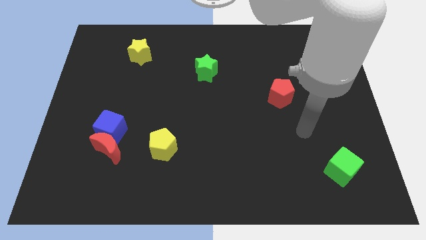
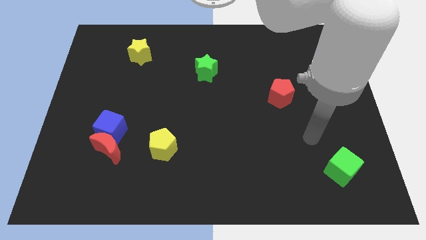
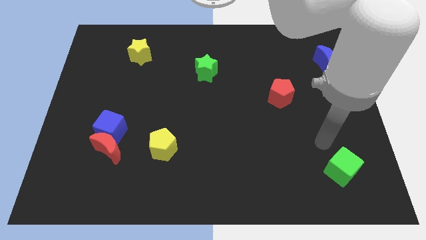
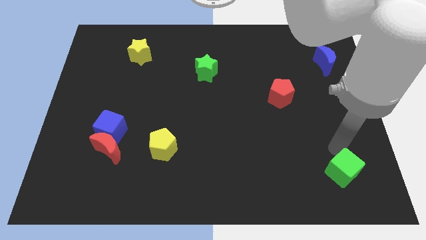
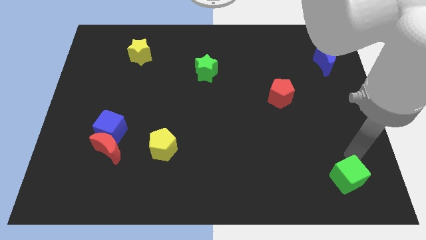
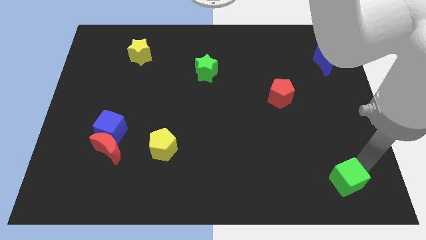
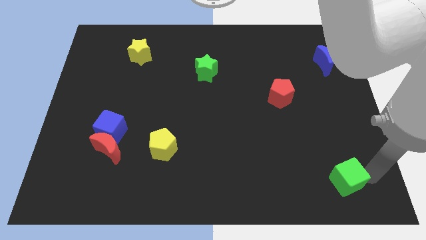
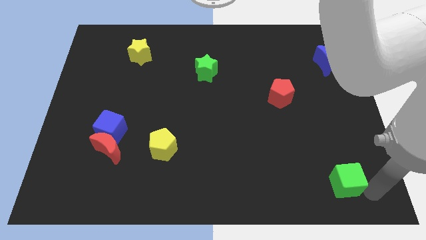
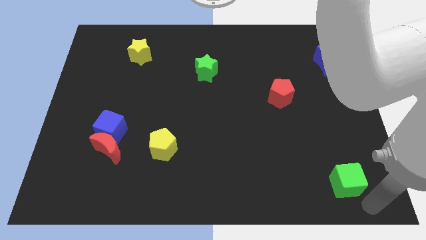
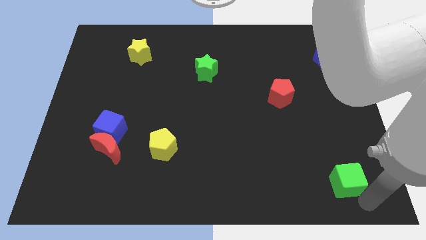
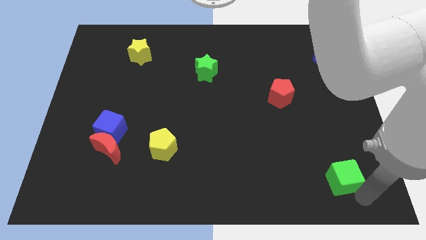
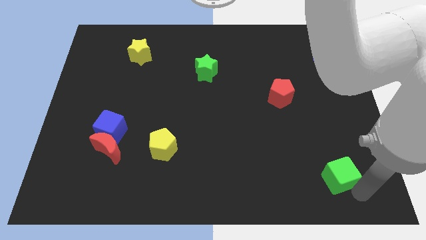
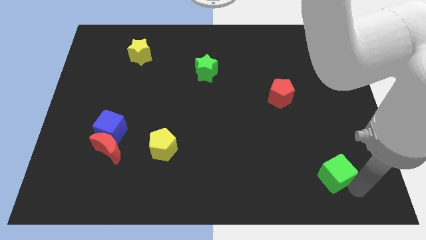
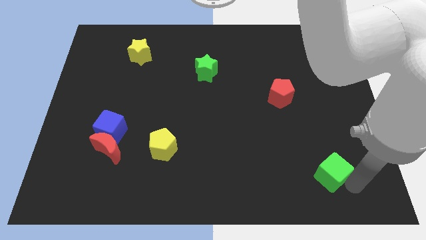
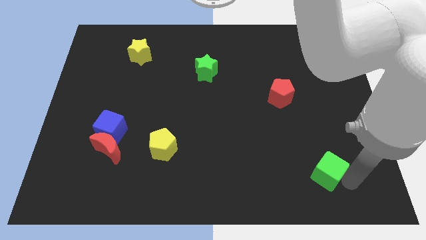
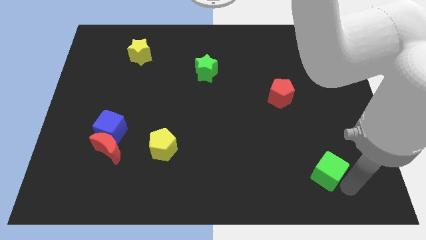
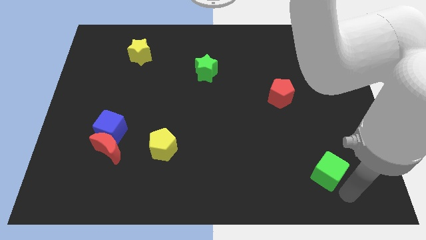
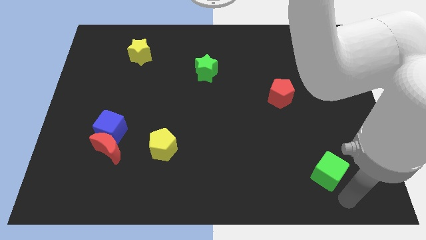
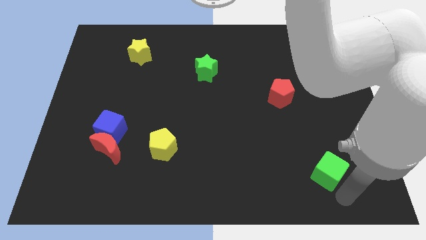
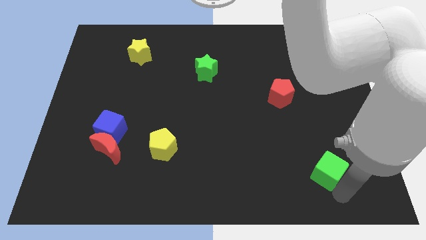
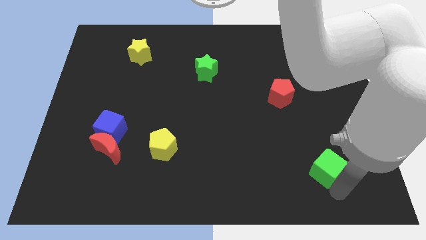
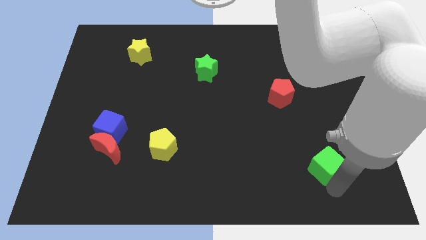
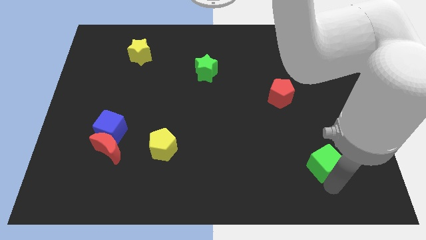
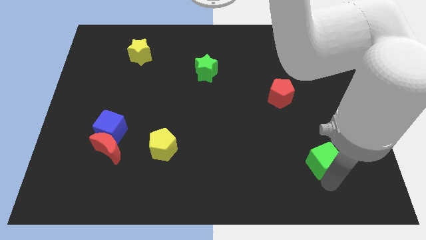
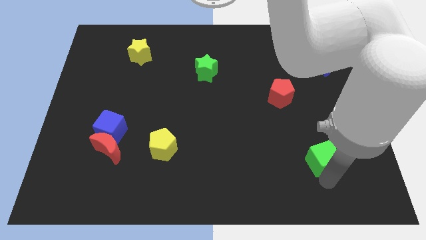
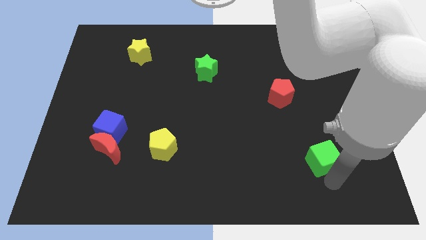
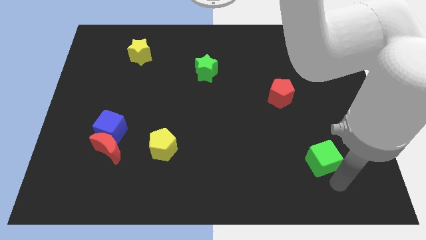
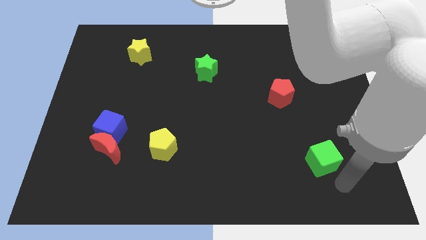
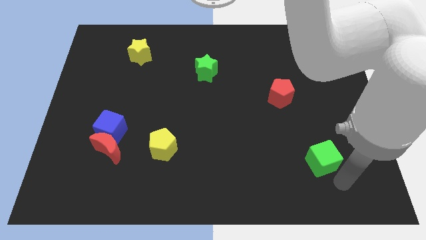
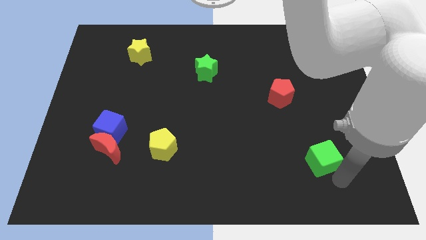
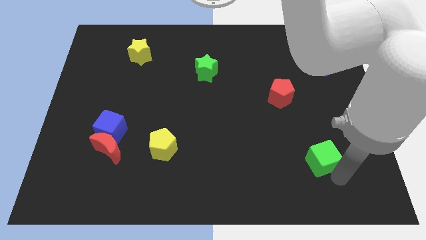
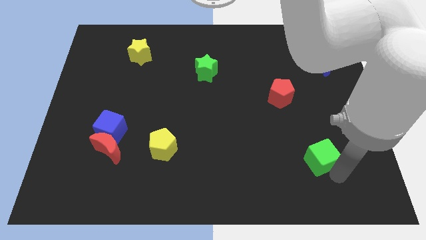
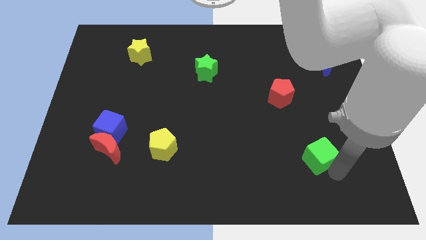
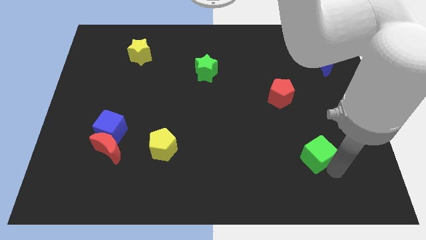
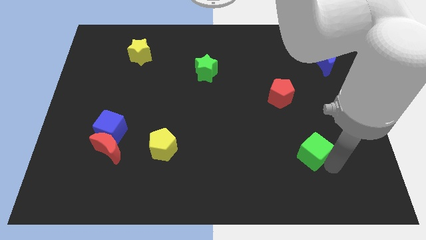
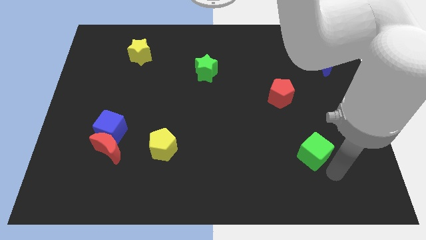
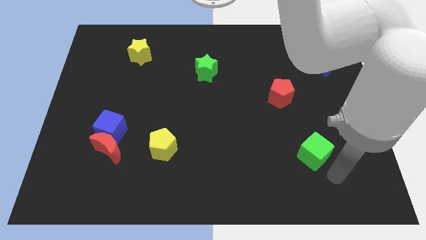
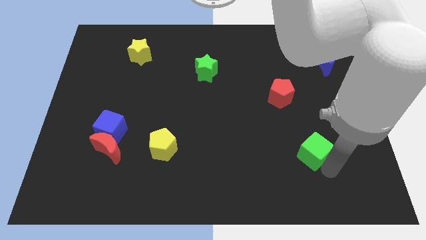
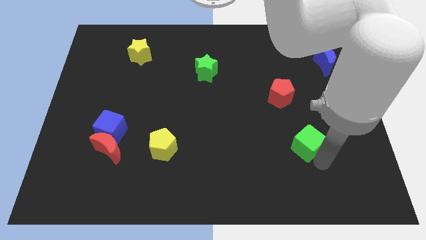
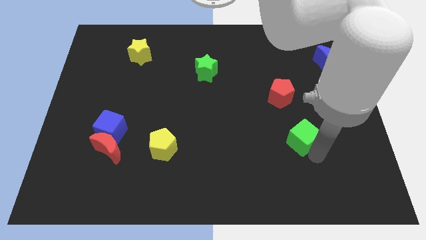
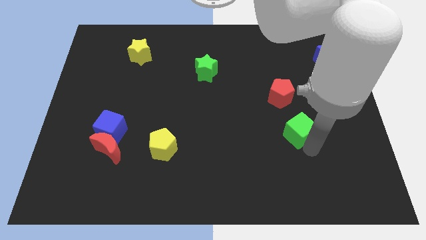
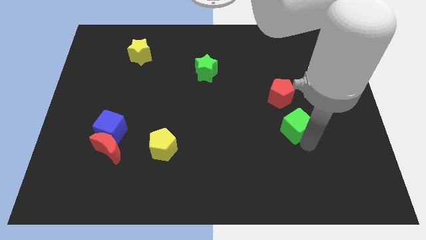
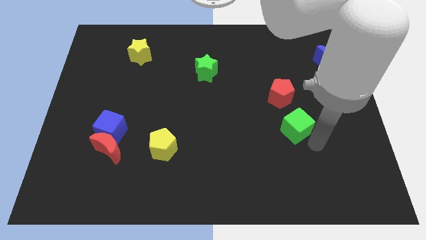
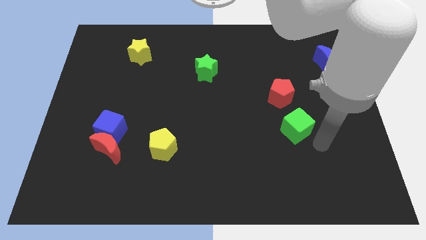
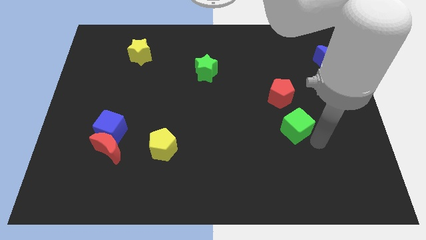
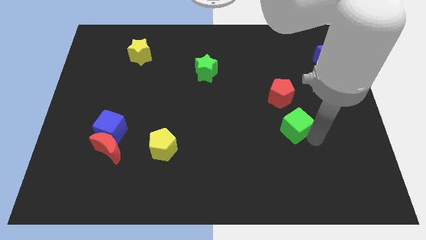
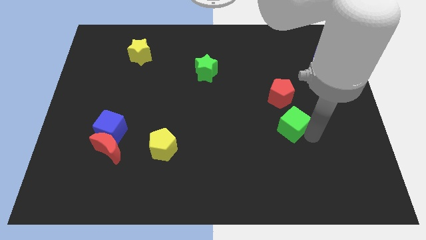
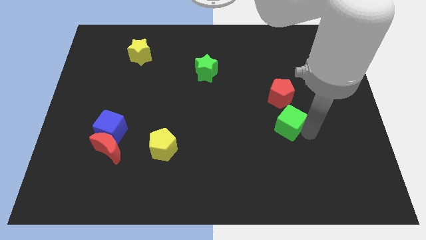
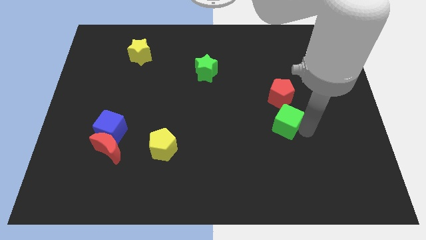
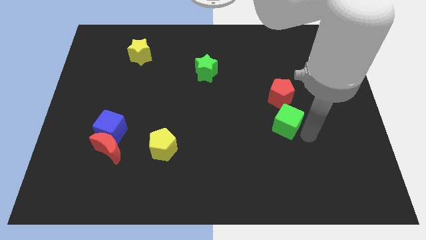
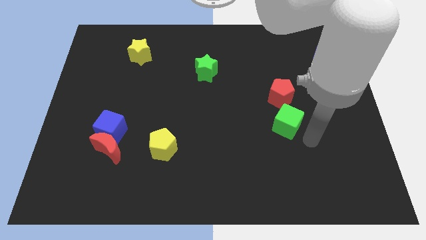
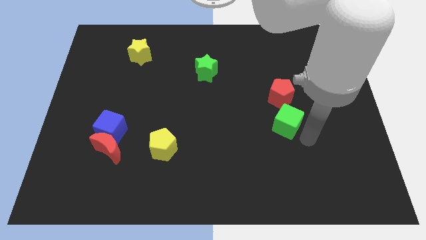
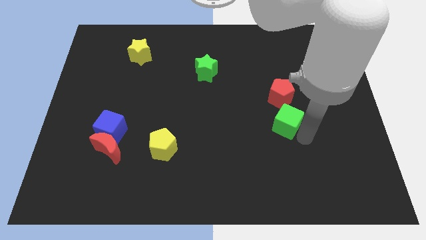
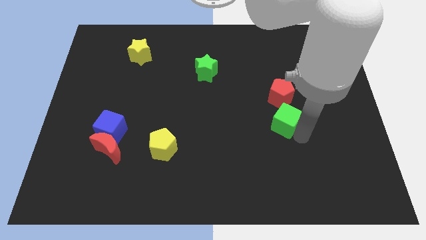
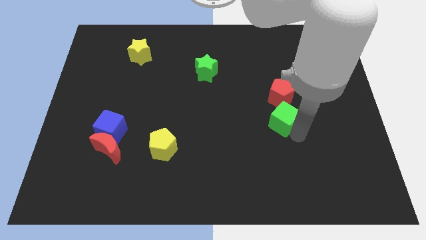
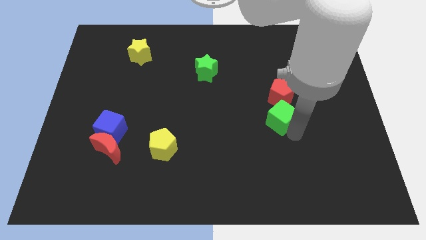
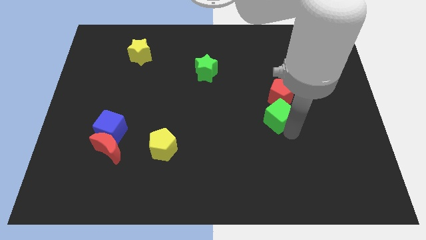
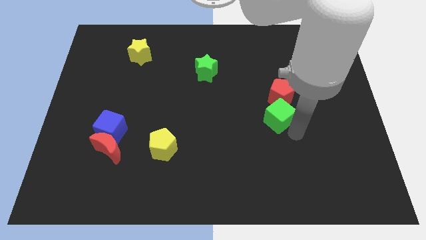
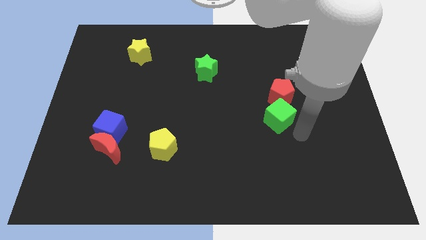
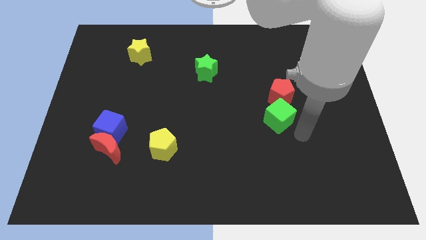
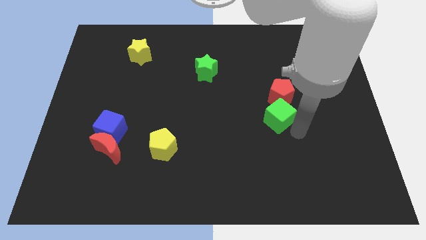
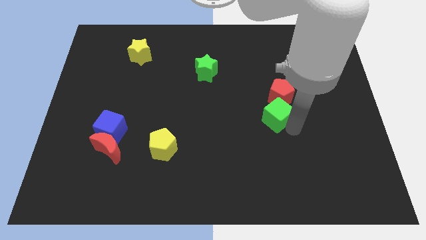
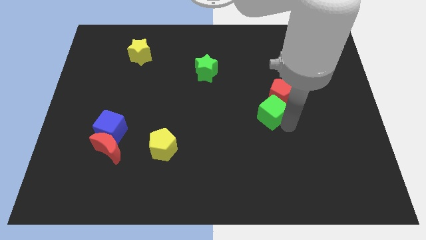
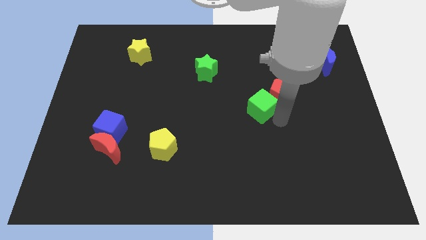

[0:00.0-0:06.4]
push the green cube up and left diagonally

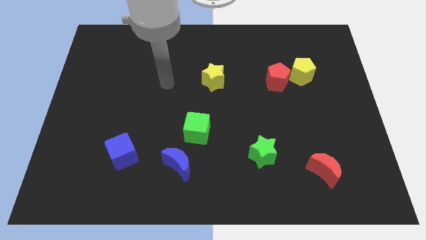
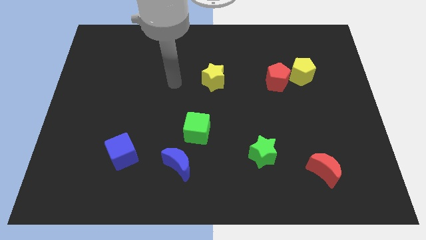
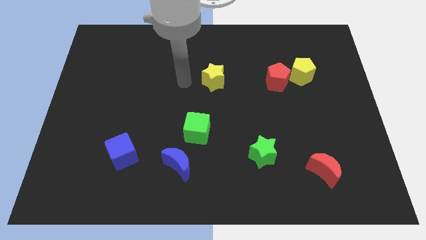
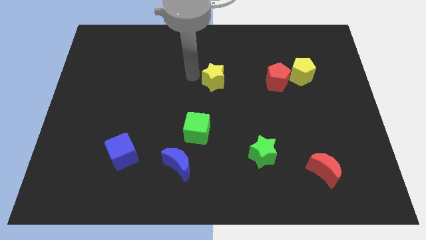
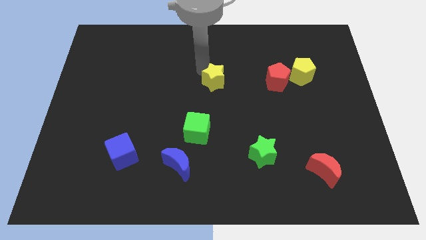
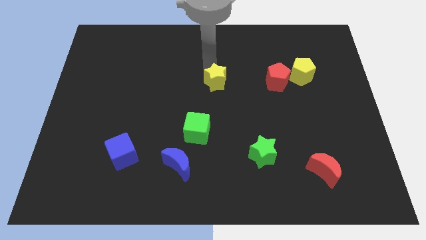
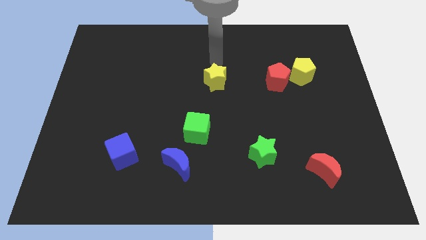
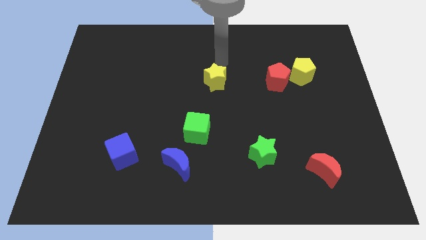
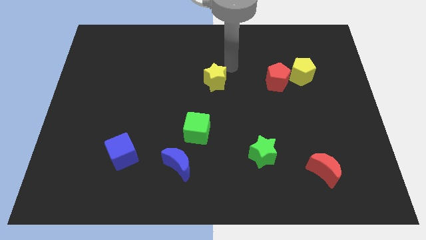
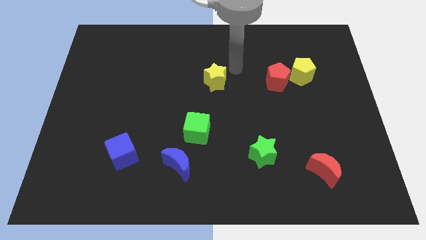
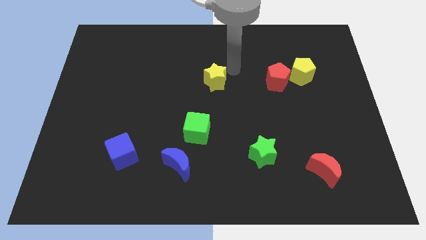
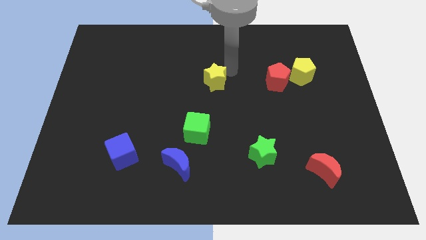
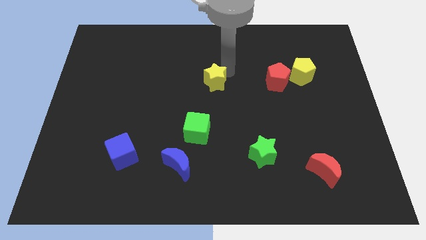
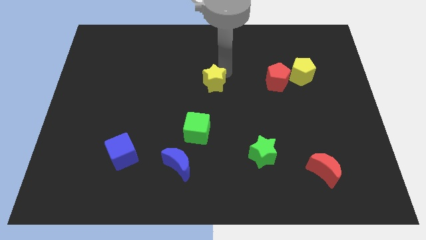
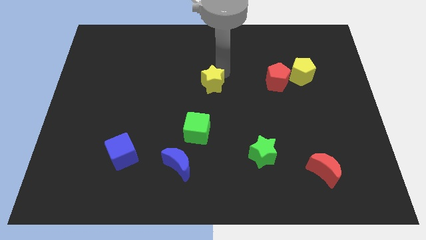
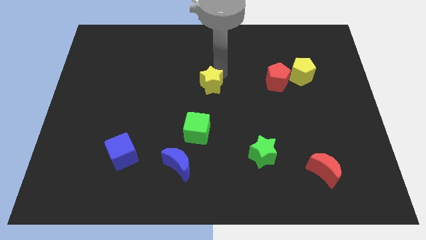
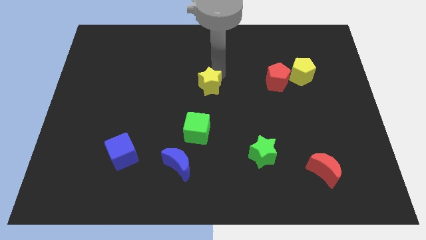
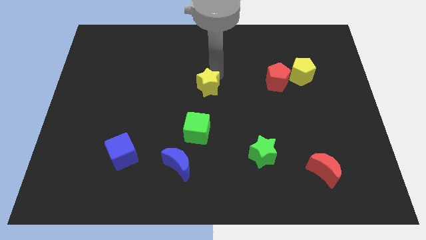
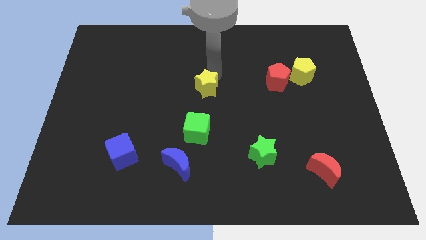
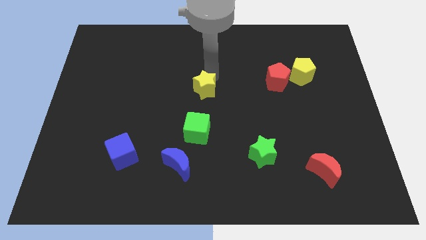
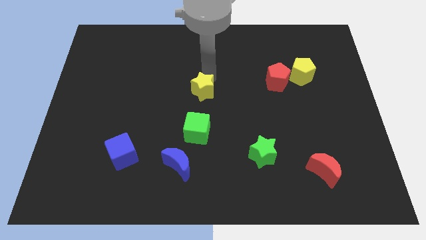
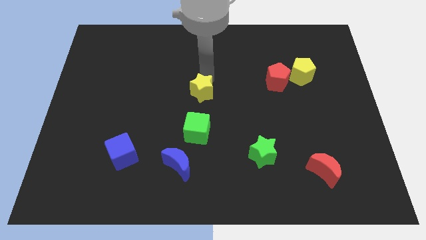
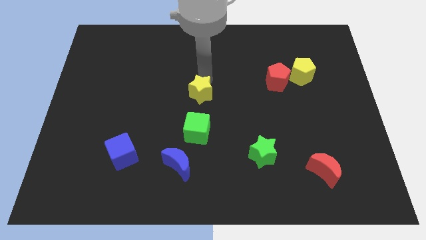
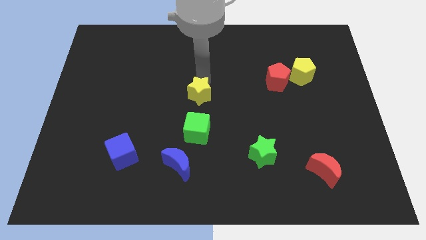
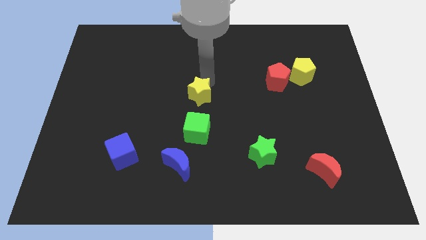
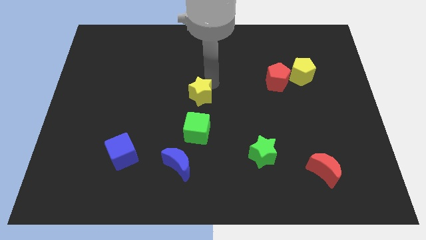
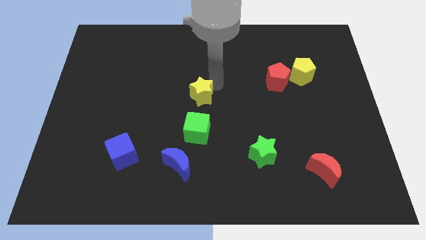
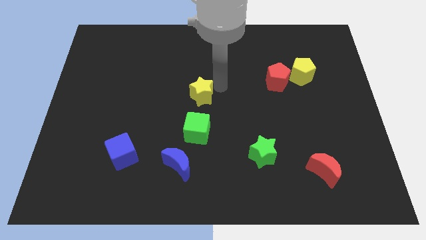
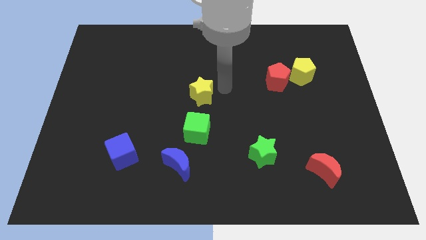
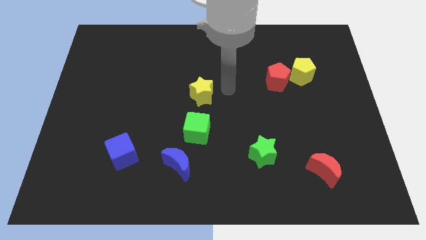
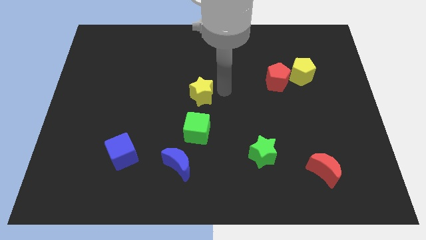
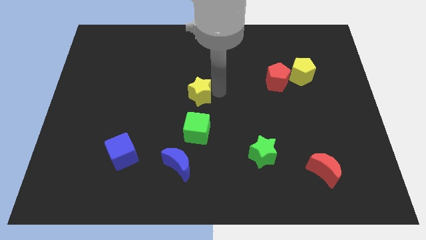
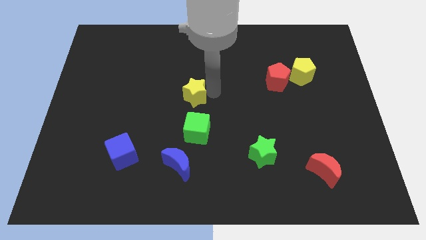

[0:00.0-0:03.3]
slightly move the yellow star downwards and to the left
